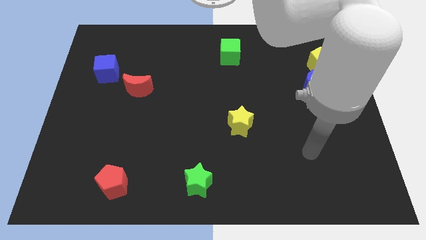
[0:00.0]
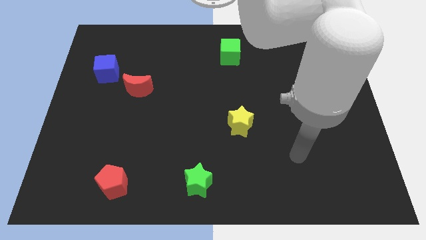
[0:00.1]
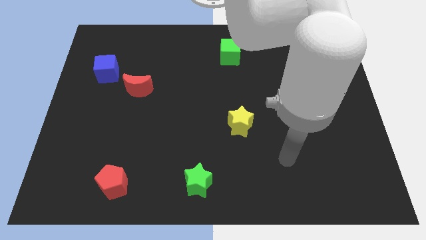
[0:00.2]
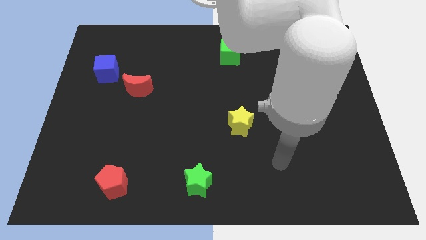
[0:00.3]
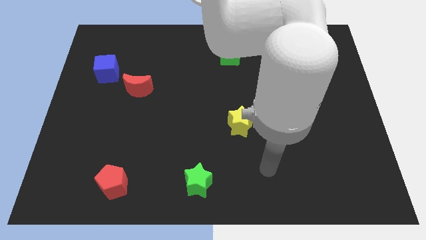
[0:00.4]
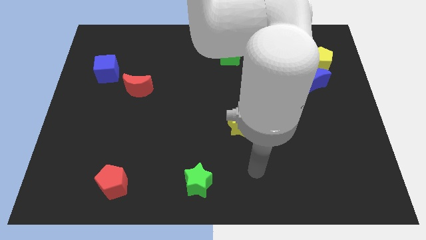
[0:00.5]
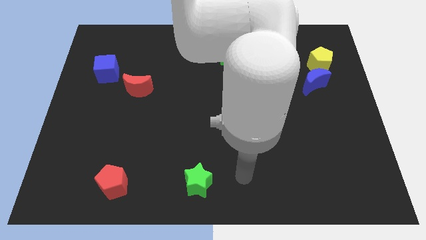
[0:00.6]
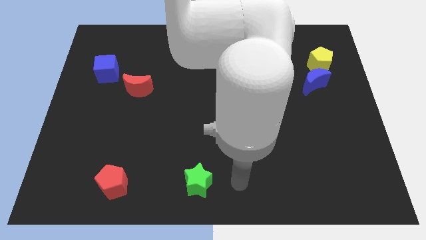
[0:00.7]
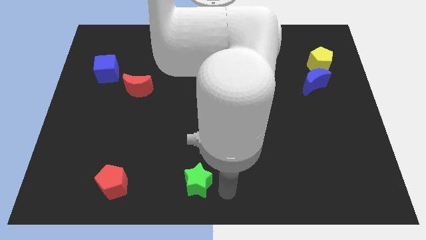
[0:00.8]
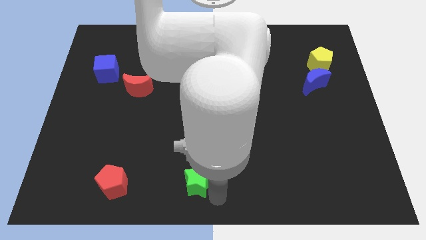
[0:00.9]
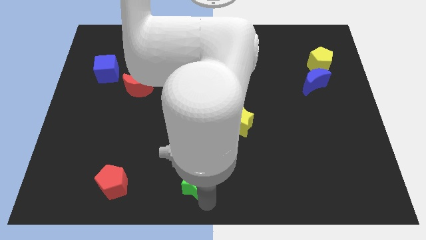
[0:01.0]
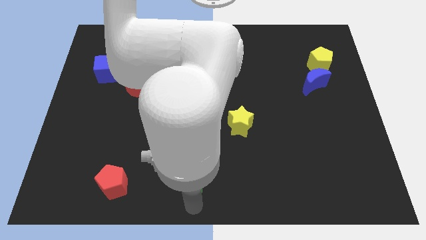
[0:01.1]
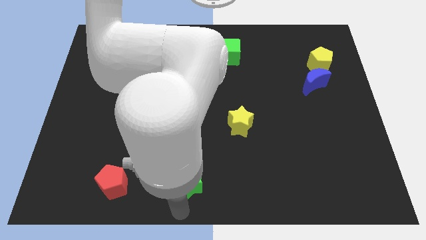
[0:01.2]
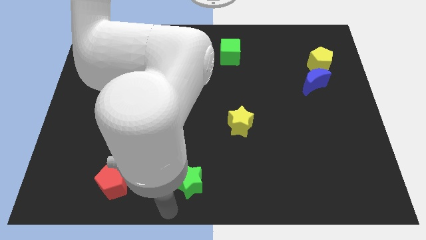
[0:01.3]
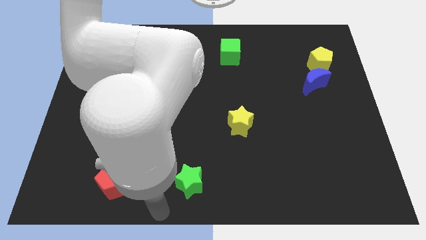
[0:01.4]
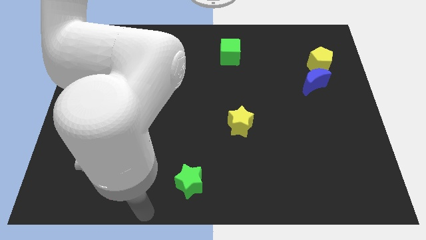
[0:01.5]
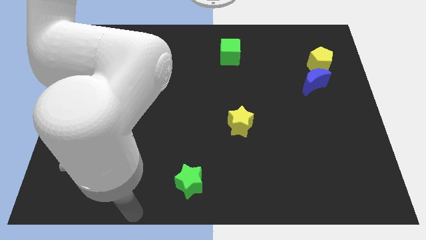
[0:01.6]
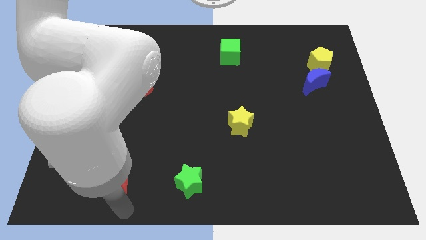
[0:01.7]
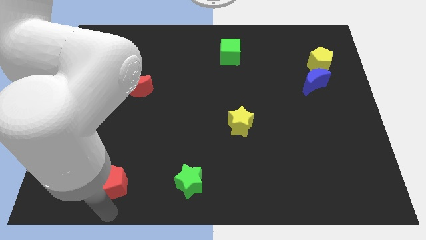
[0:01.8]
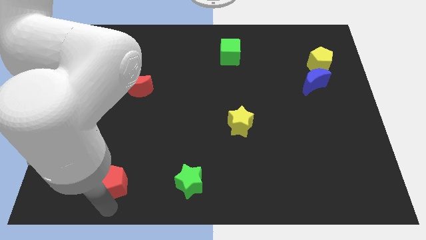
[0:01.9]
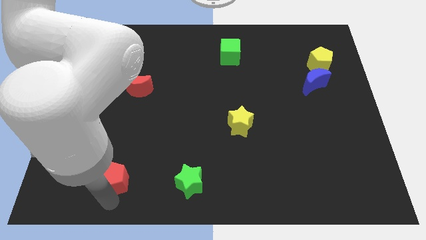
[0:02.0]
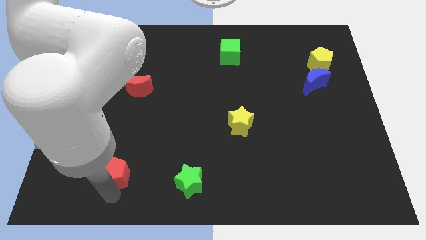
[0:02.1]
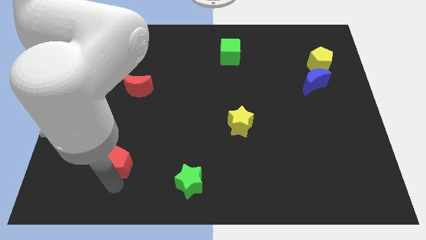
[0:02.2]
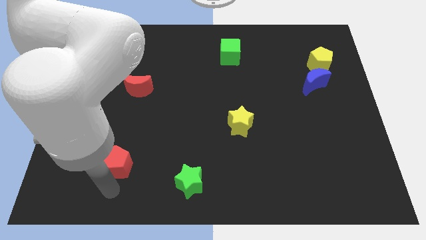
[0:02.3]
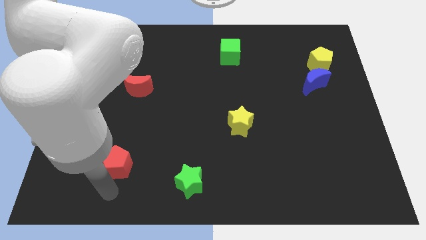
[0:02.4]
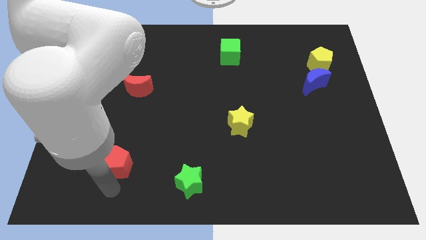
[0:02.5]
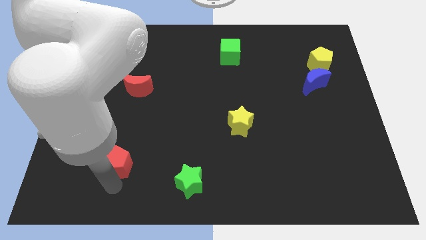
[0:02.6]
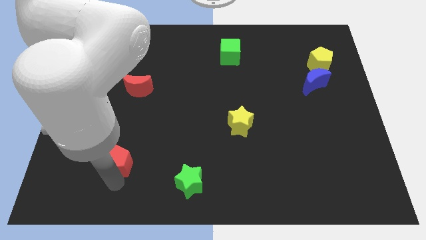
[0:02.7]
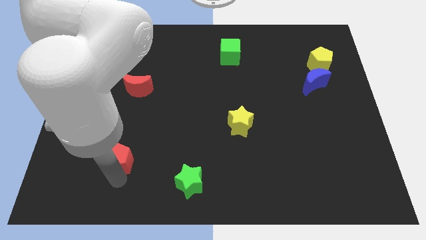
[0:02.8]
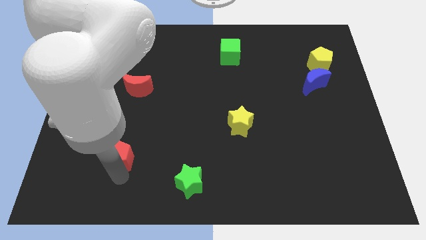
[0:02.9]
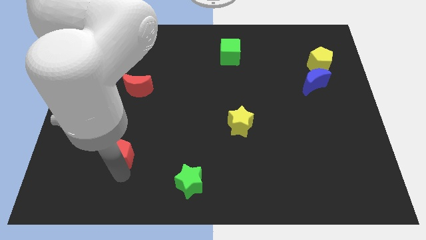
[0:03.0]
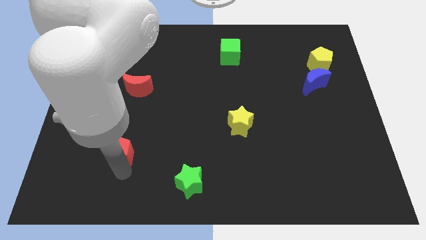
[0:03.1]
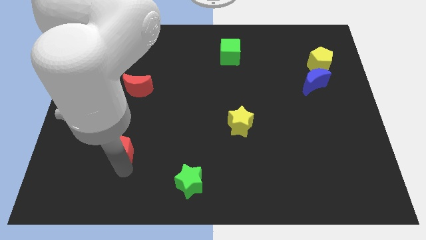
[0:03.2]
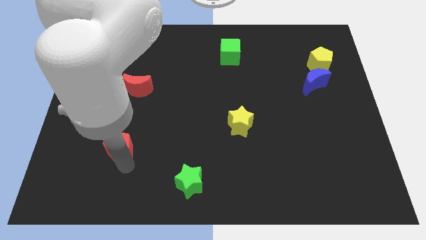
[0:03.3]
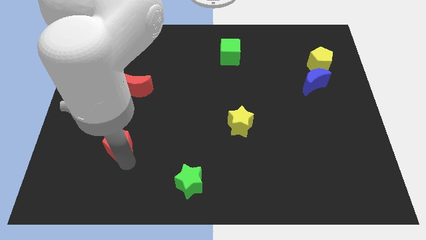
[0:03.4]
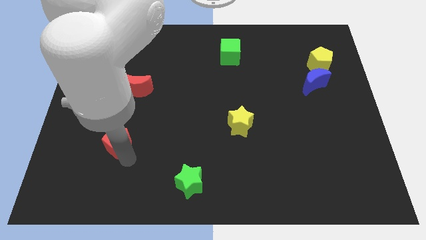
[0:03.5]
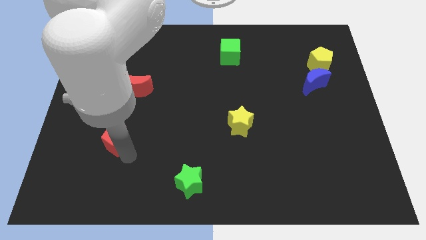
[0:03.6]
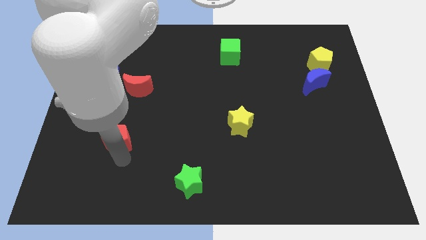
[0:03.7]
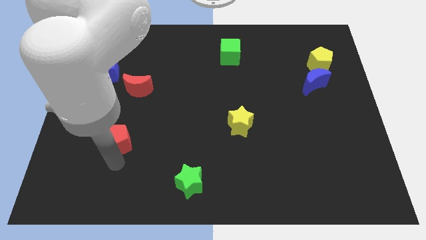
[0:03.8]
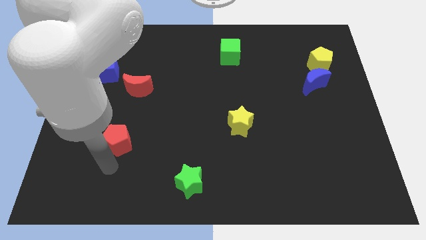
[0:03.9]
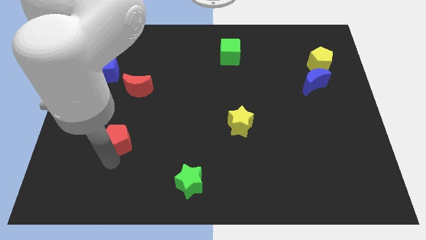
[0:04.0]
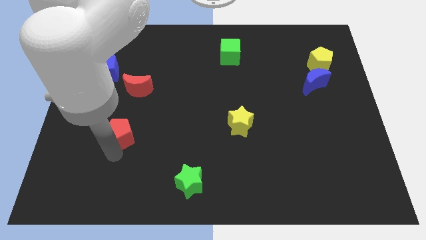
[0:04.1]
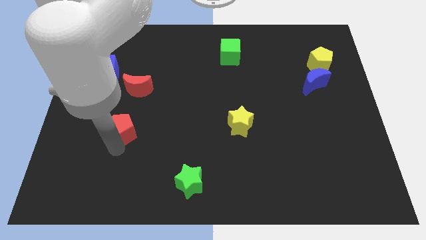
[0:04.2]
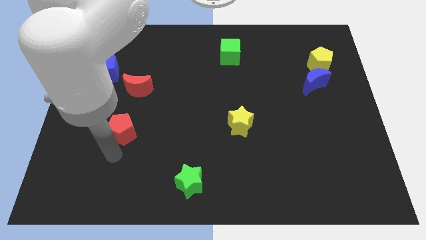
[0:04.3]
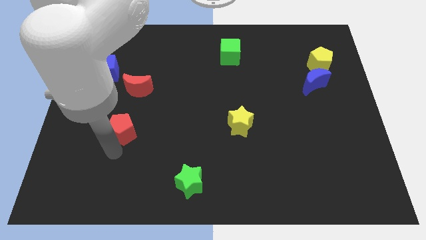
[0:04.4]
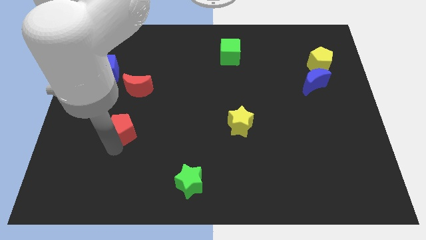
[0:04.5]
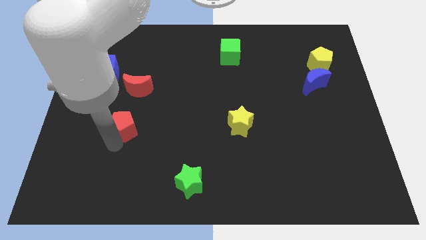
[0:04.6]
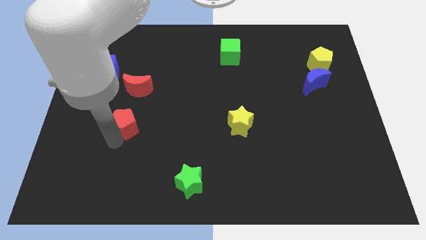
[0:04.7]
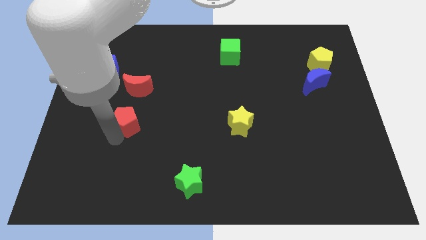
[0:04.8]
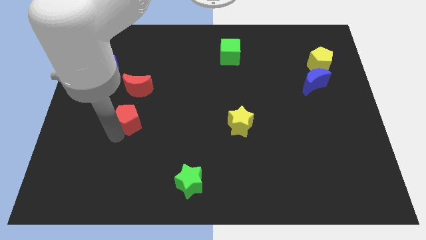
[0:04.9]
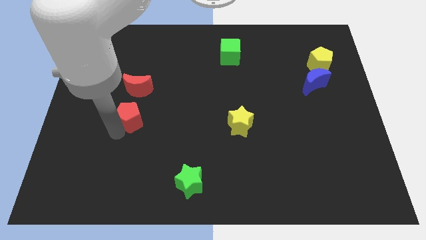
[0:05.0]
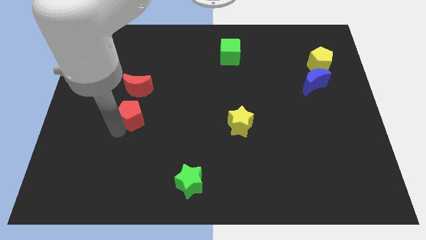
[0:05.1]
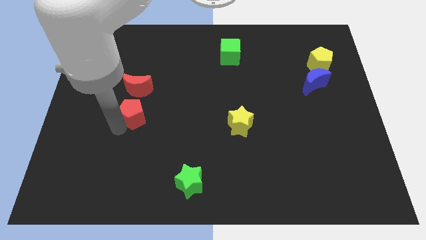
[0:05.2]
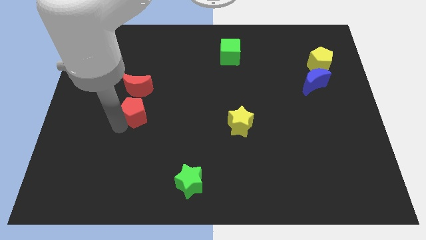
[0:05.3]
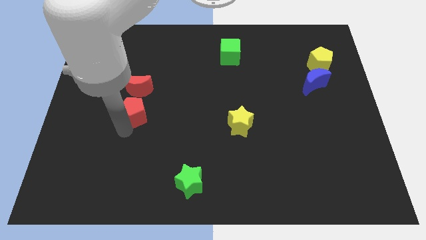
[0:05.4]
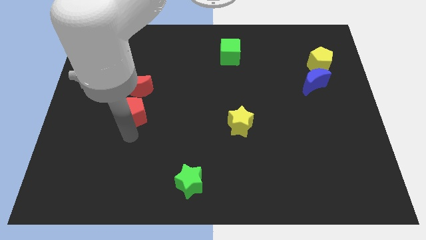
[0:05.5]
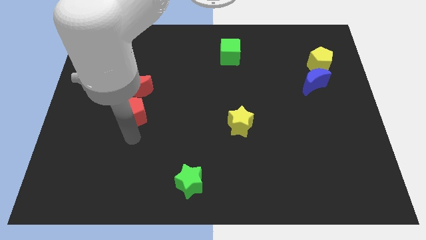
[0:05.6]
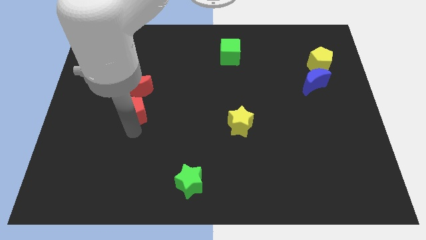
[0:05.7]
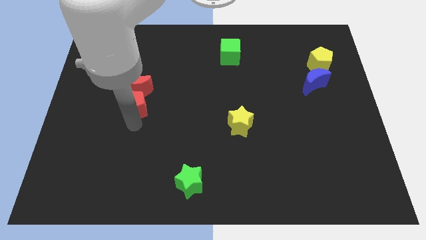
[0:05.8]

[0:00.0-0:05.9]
push the red pentagon towards the red moon

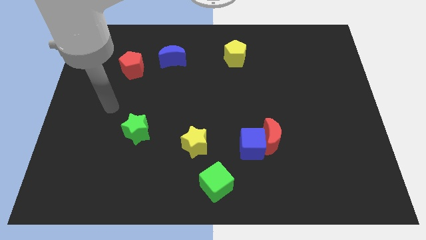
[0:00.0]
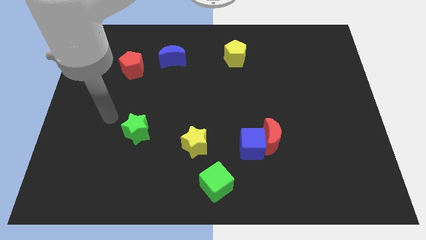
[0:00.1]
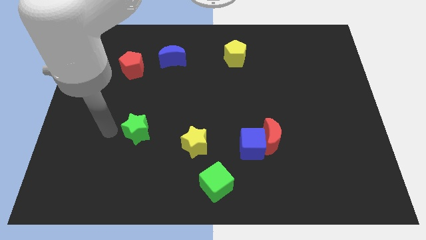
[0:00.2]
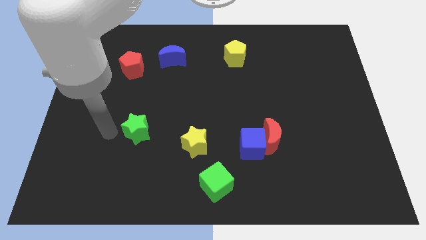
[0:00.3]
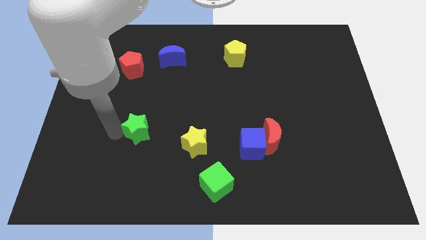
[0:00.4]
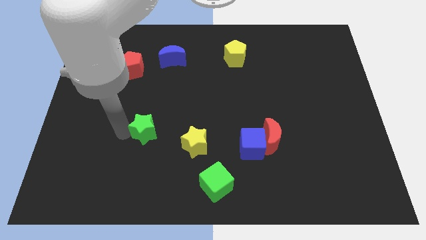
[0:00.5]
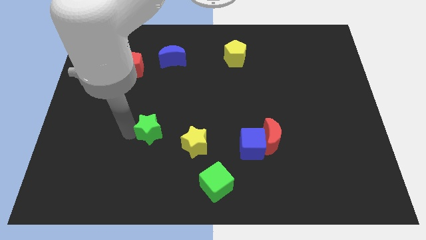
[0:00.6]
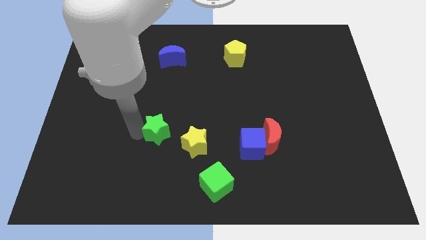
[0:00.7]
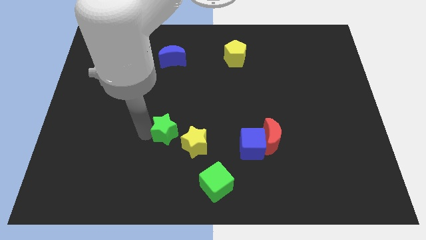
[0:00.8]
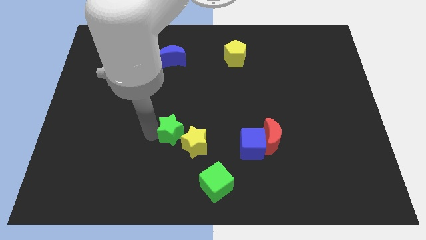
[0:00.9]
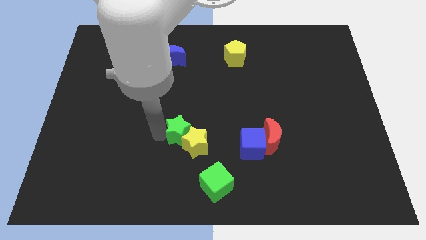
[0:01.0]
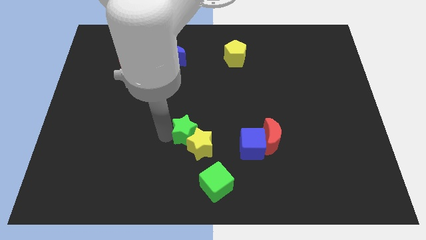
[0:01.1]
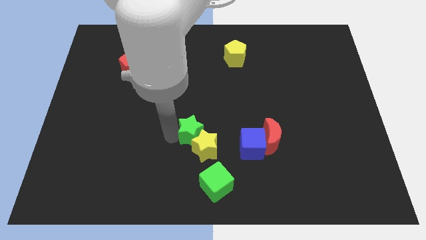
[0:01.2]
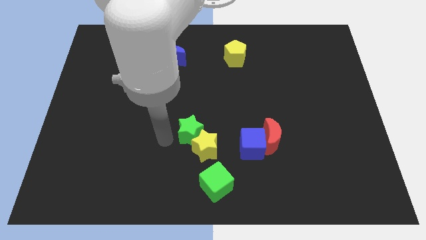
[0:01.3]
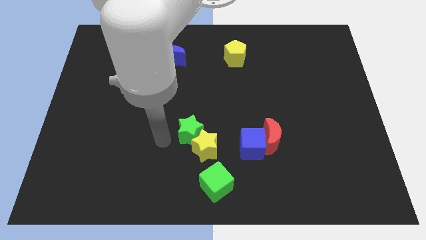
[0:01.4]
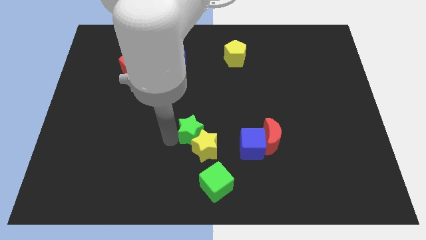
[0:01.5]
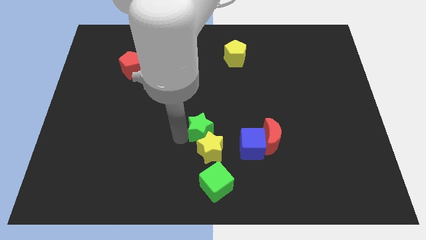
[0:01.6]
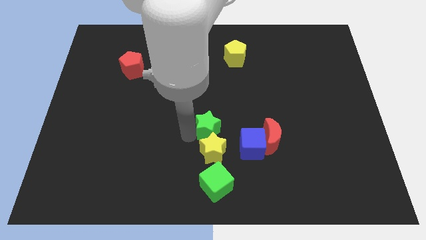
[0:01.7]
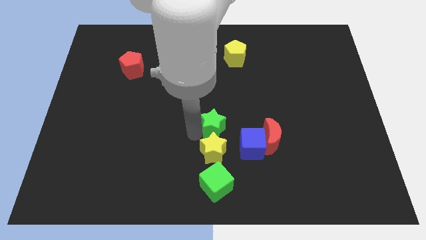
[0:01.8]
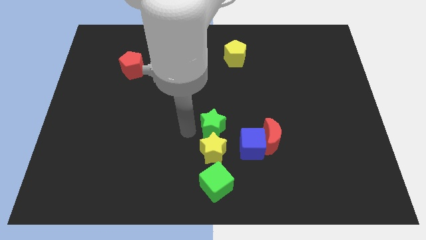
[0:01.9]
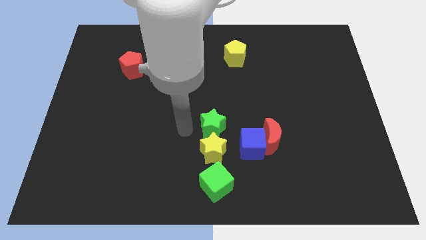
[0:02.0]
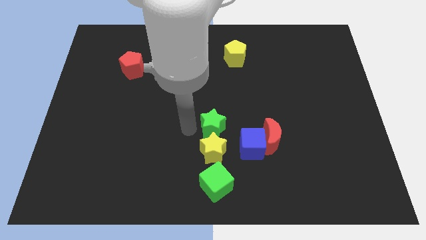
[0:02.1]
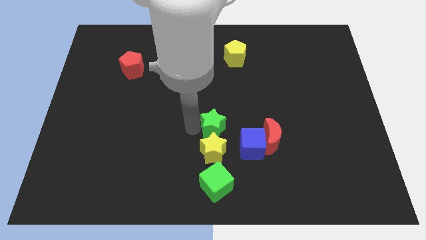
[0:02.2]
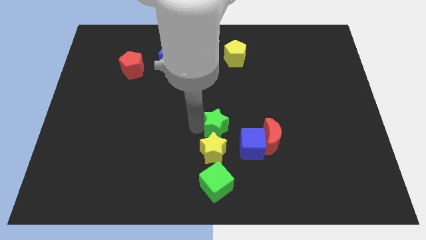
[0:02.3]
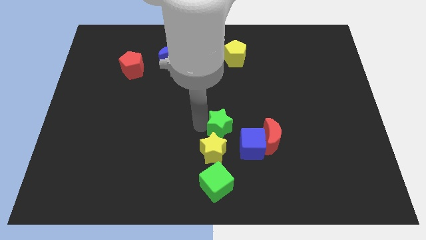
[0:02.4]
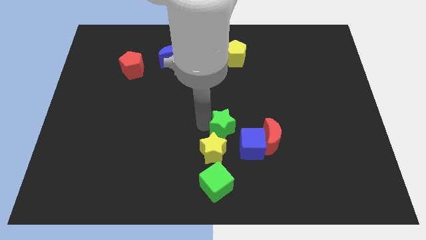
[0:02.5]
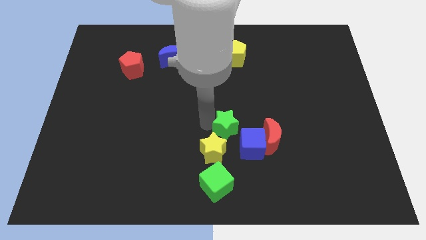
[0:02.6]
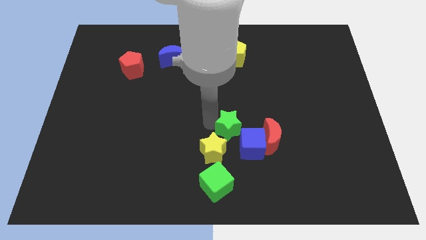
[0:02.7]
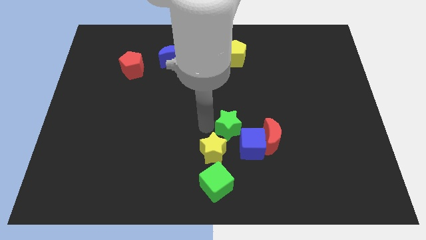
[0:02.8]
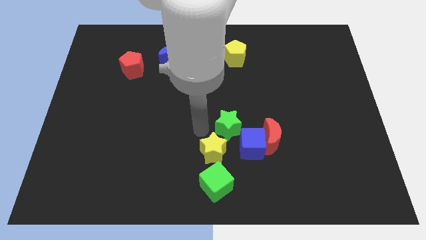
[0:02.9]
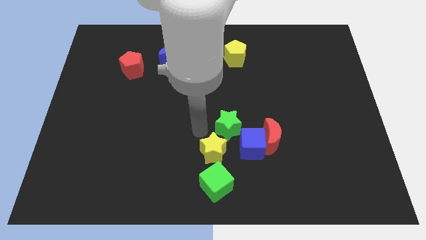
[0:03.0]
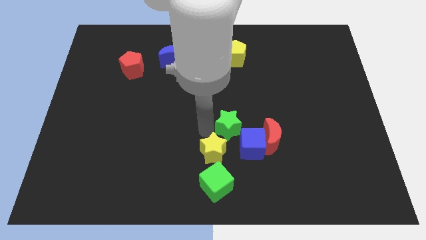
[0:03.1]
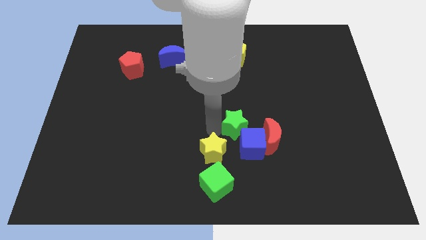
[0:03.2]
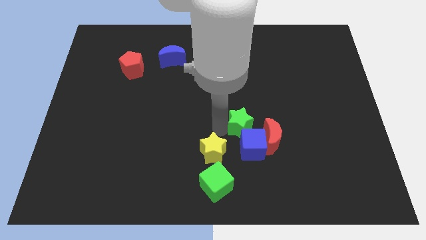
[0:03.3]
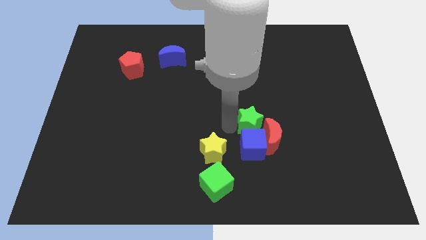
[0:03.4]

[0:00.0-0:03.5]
move the green star to the red moon
